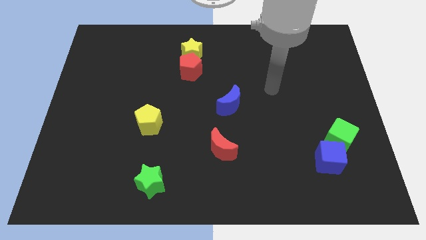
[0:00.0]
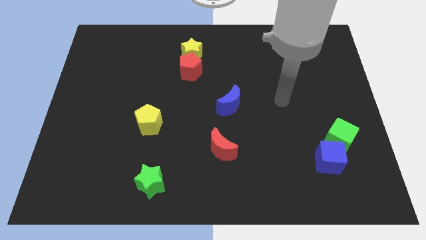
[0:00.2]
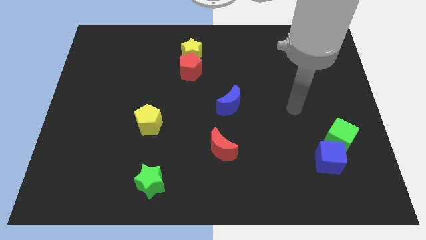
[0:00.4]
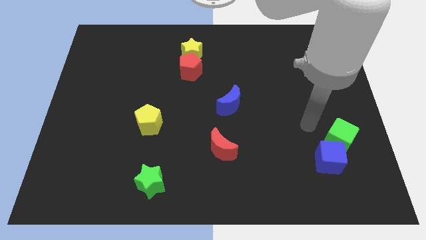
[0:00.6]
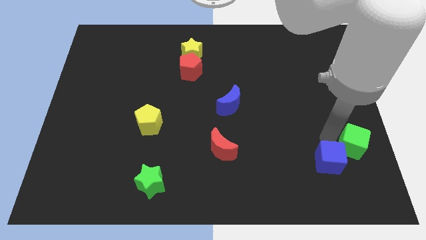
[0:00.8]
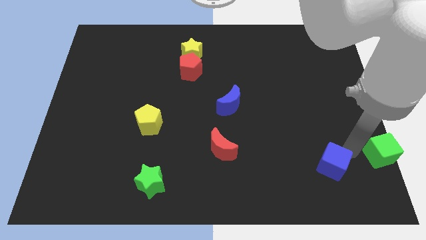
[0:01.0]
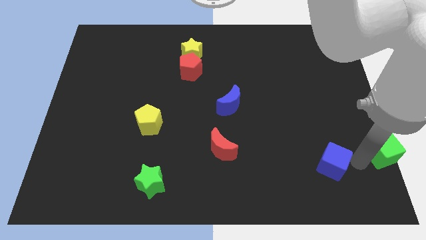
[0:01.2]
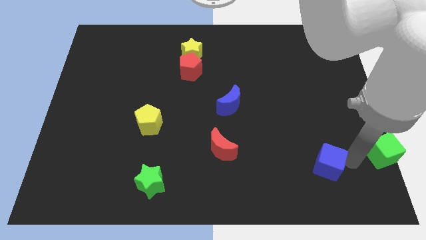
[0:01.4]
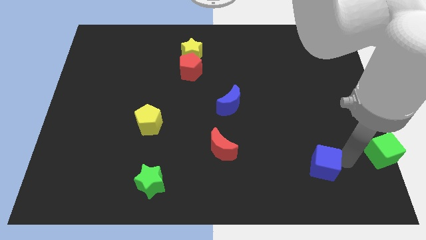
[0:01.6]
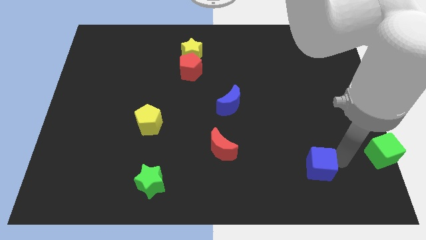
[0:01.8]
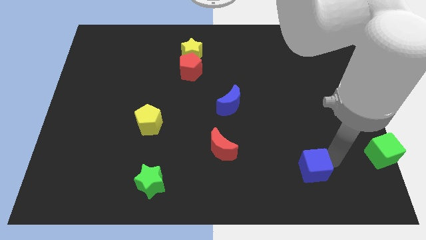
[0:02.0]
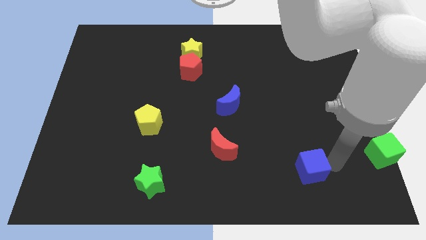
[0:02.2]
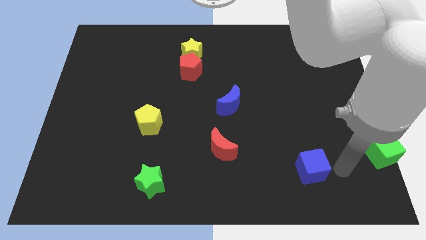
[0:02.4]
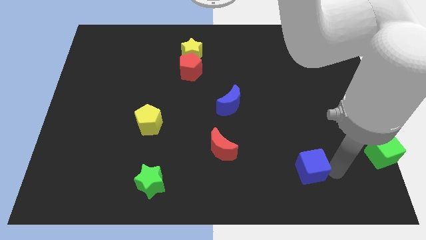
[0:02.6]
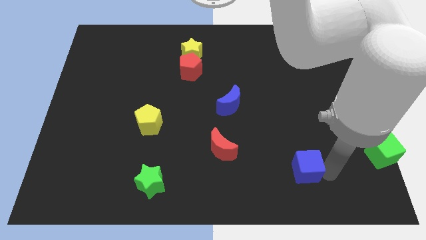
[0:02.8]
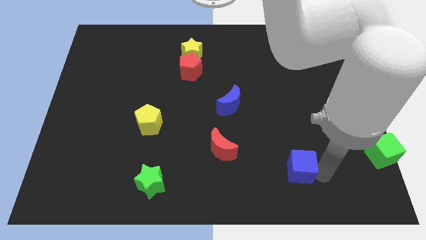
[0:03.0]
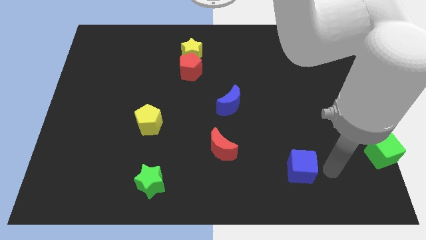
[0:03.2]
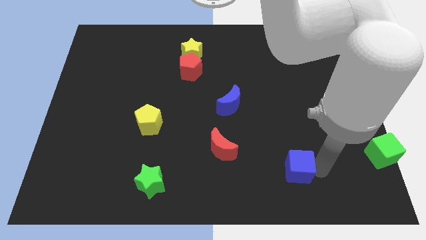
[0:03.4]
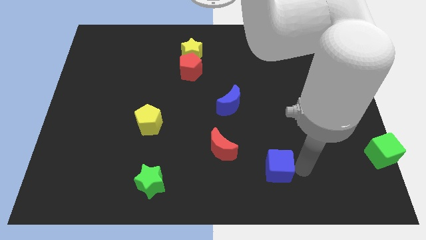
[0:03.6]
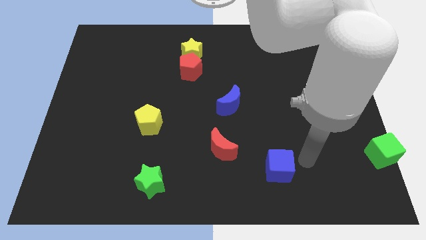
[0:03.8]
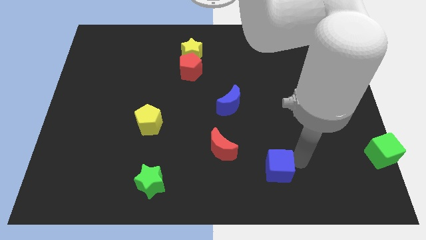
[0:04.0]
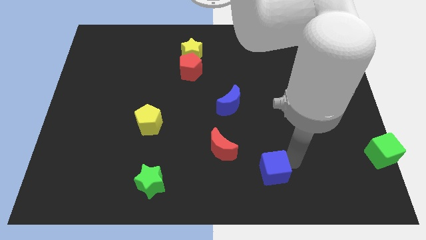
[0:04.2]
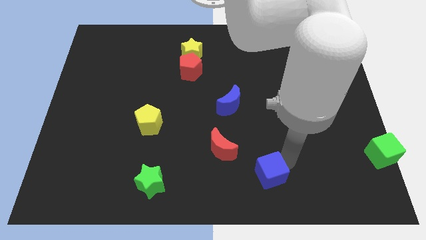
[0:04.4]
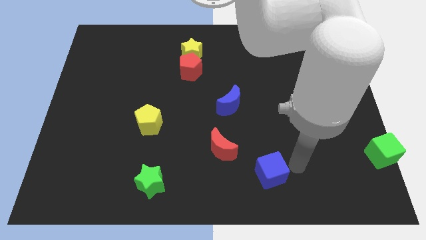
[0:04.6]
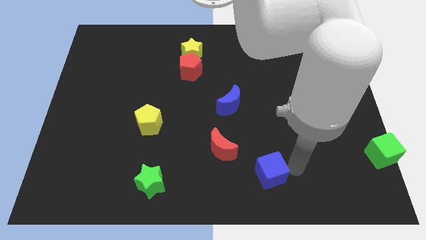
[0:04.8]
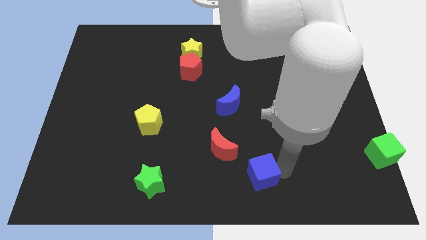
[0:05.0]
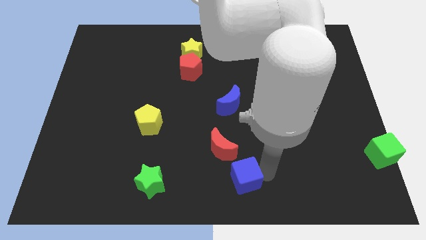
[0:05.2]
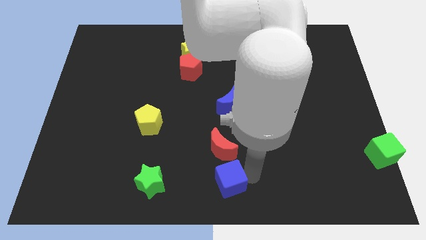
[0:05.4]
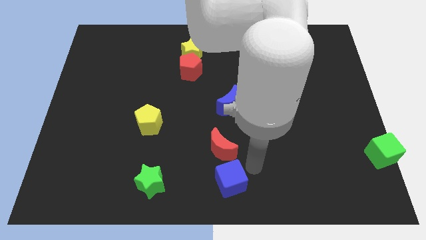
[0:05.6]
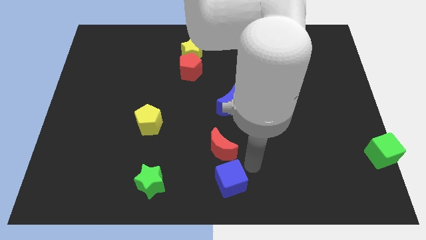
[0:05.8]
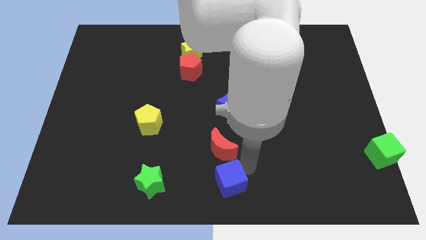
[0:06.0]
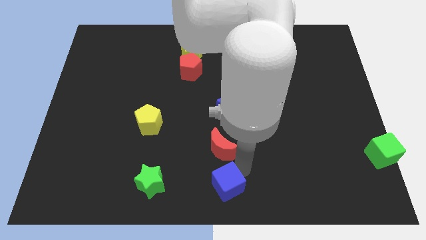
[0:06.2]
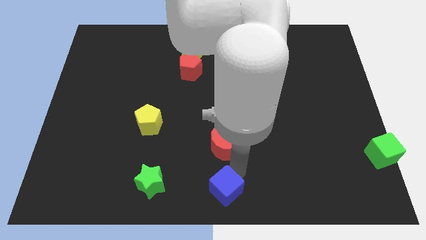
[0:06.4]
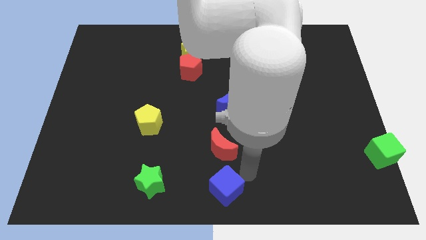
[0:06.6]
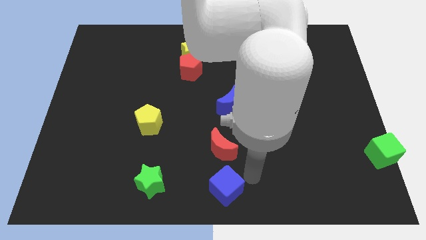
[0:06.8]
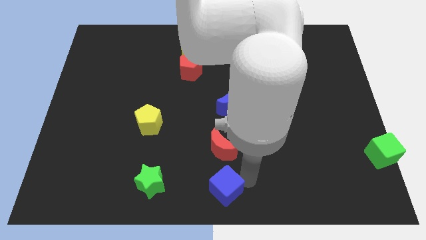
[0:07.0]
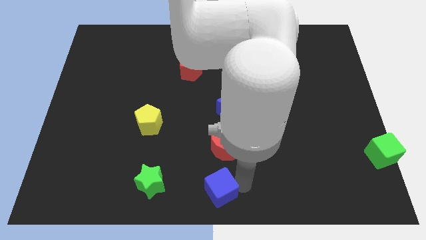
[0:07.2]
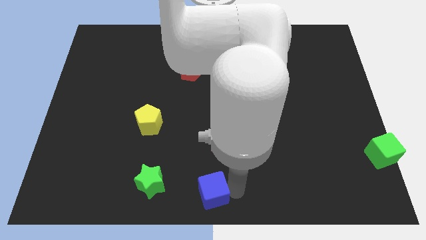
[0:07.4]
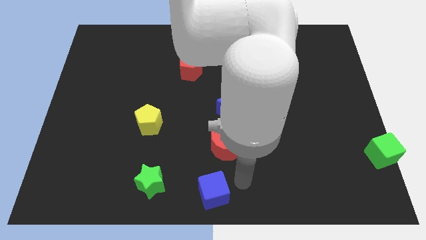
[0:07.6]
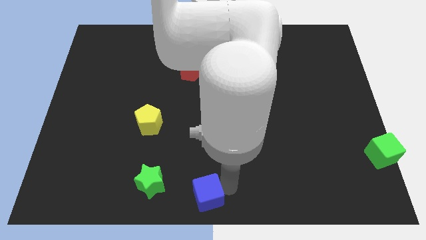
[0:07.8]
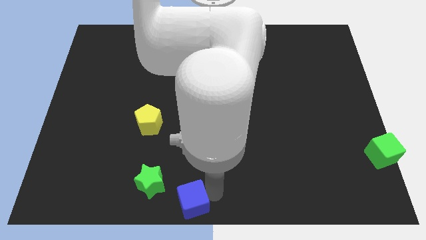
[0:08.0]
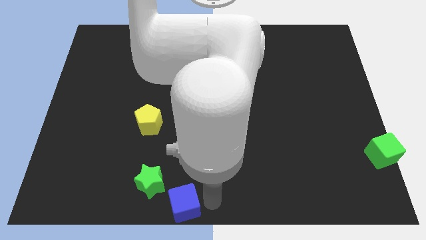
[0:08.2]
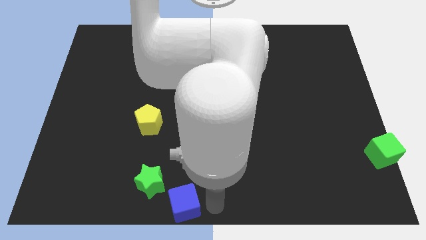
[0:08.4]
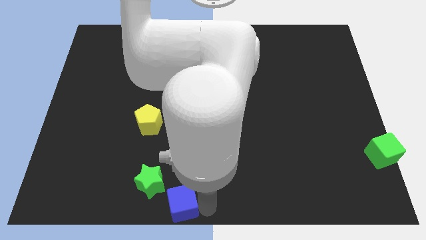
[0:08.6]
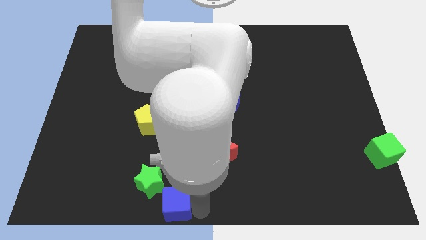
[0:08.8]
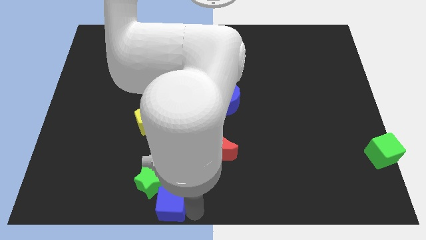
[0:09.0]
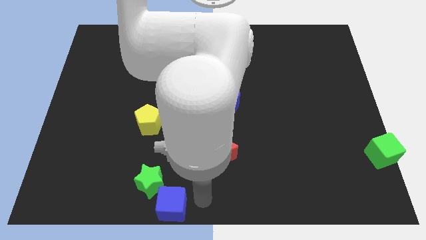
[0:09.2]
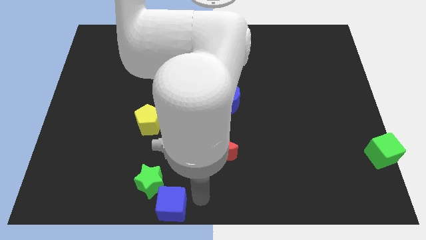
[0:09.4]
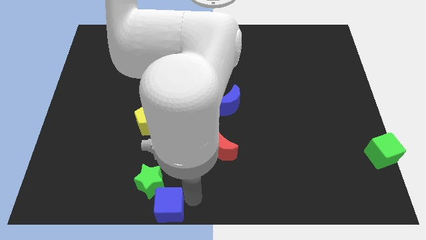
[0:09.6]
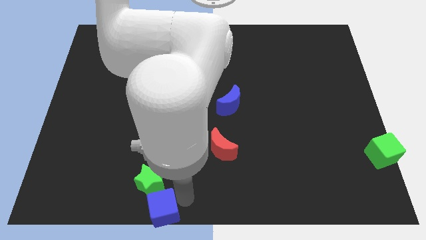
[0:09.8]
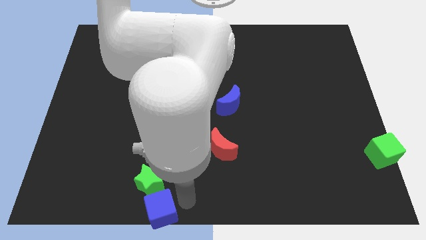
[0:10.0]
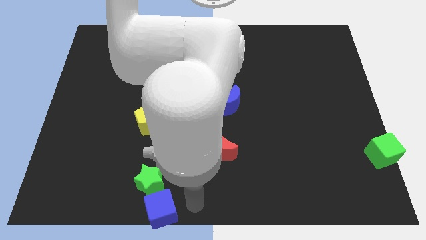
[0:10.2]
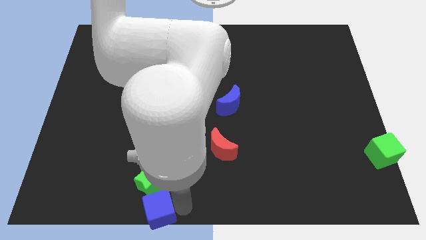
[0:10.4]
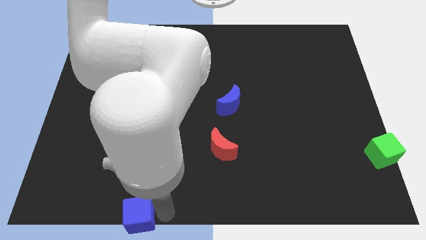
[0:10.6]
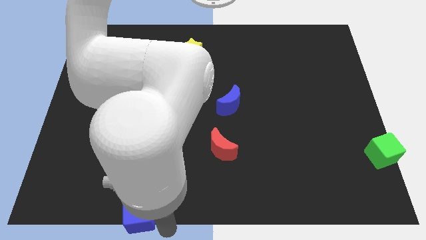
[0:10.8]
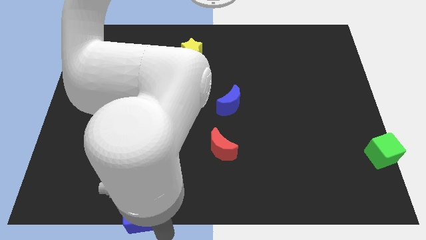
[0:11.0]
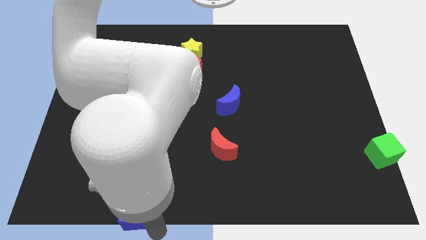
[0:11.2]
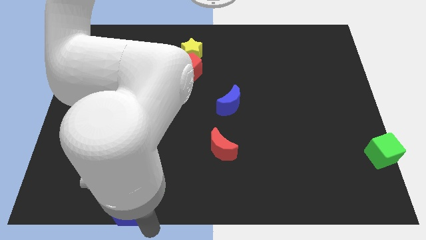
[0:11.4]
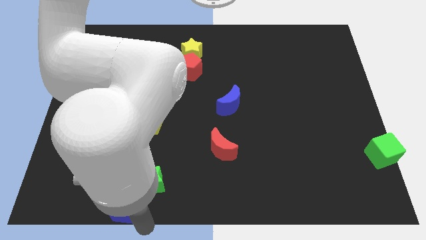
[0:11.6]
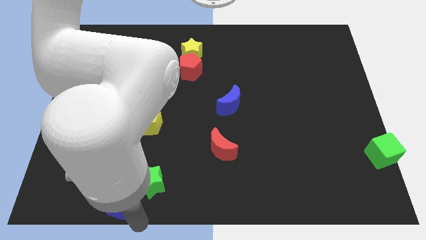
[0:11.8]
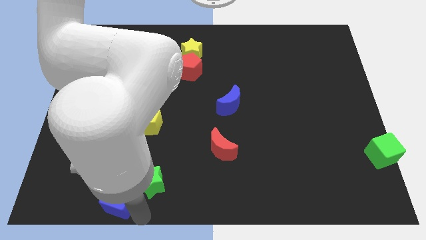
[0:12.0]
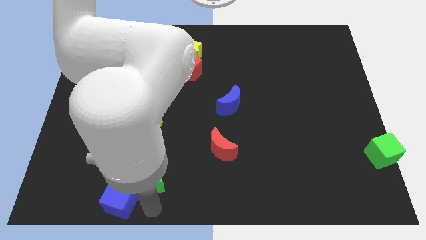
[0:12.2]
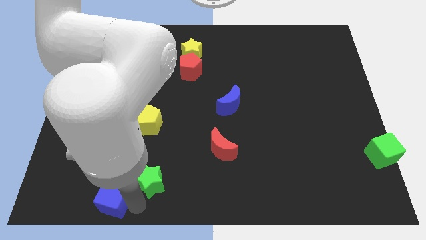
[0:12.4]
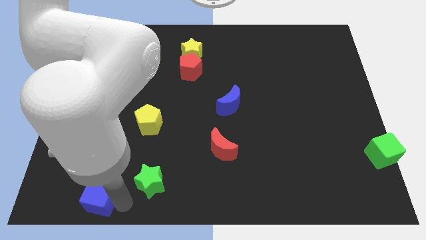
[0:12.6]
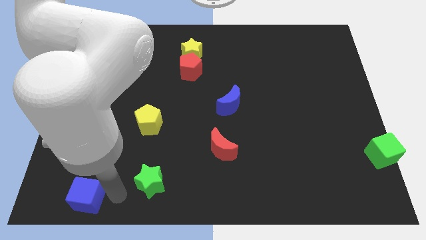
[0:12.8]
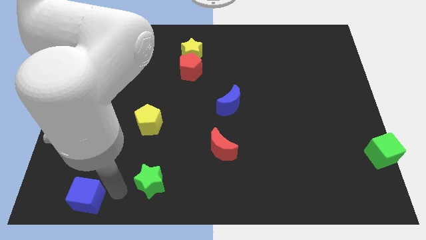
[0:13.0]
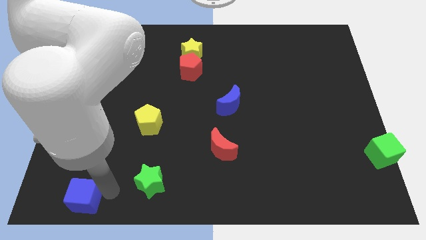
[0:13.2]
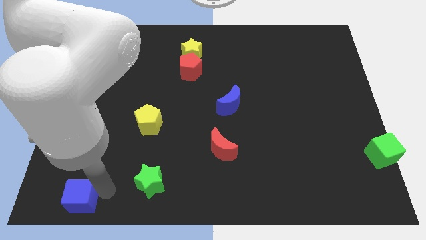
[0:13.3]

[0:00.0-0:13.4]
move the blue cube to the bottom left
